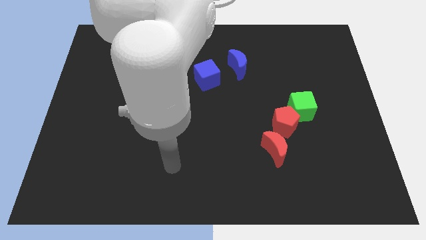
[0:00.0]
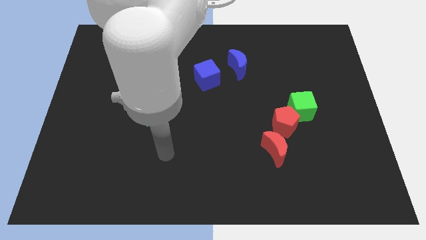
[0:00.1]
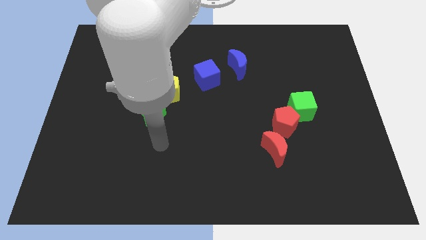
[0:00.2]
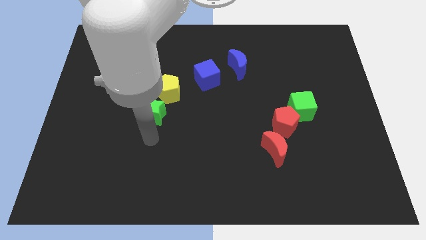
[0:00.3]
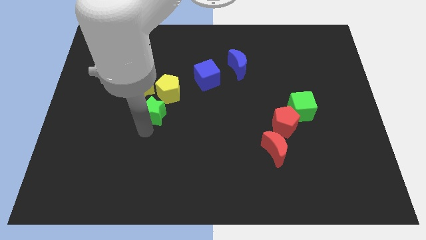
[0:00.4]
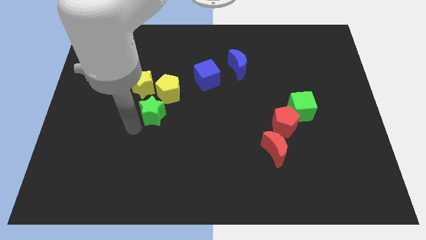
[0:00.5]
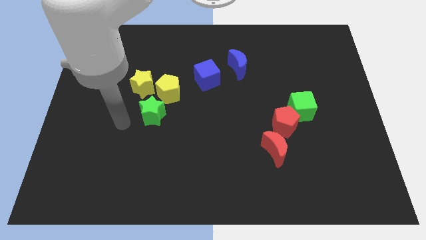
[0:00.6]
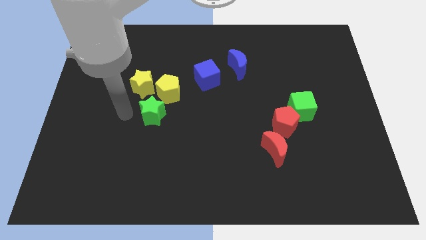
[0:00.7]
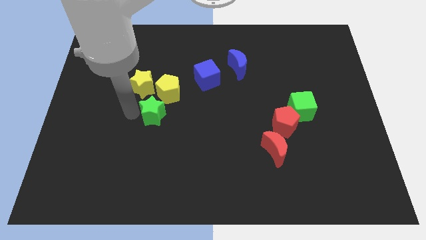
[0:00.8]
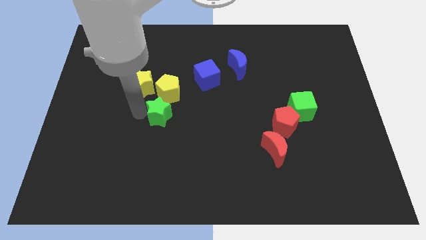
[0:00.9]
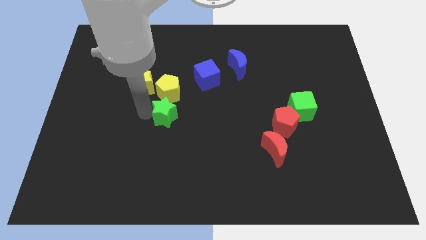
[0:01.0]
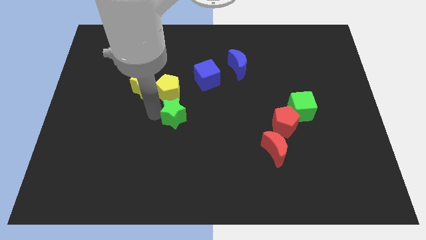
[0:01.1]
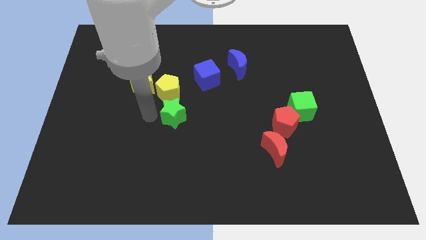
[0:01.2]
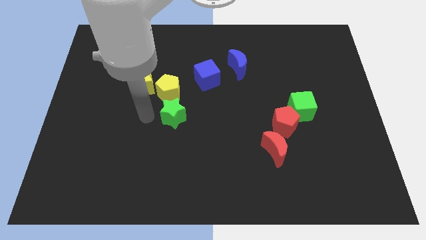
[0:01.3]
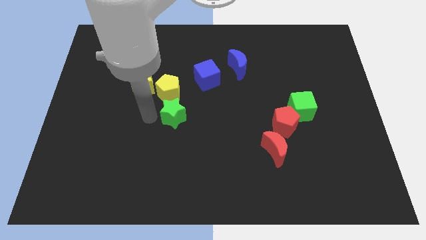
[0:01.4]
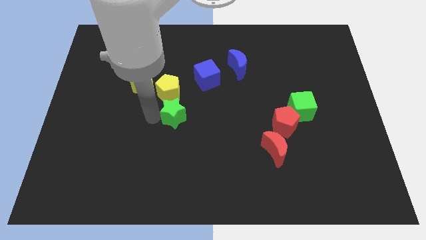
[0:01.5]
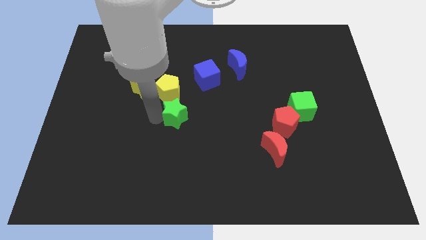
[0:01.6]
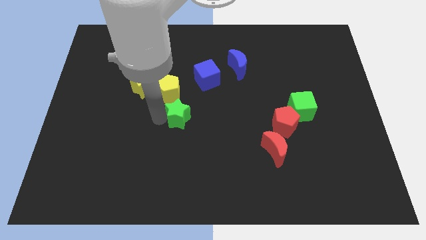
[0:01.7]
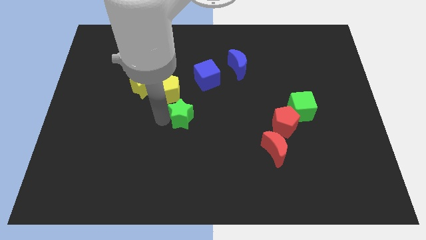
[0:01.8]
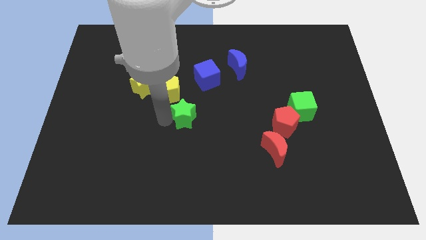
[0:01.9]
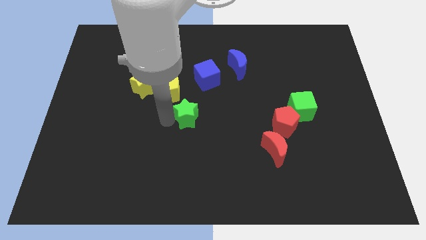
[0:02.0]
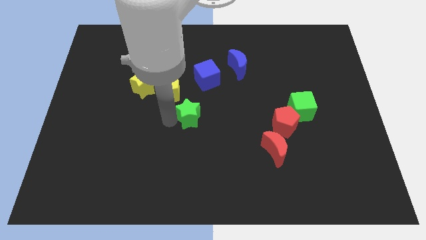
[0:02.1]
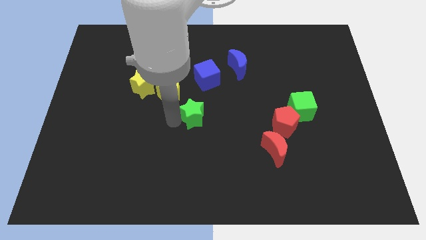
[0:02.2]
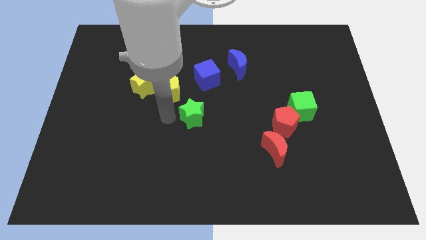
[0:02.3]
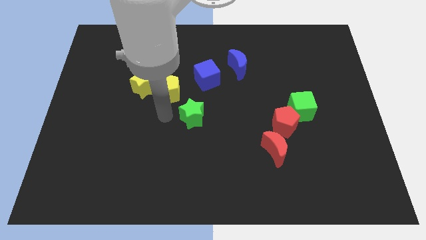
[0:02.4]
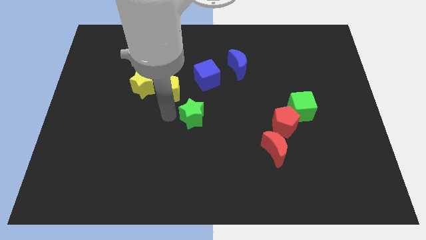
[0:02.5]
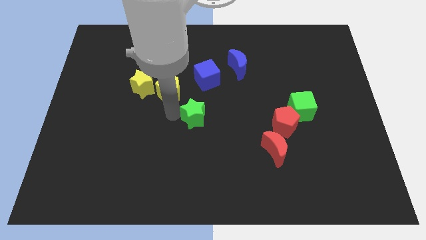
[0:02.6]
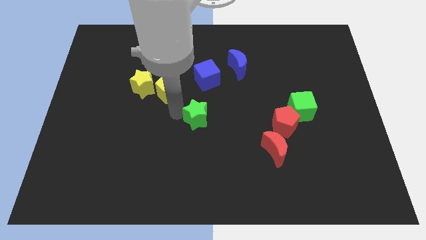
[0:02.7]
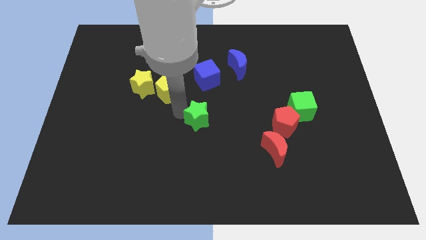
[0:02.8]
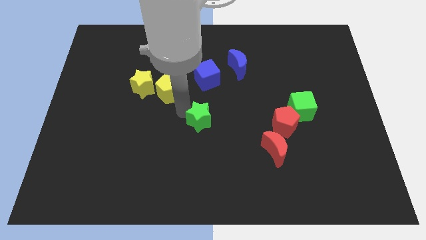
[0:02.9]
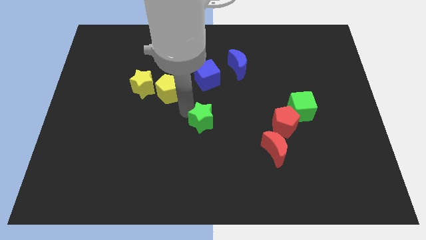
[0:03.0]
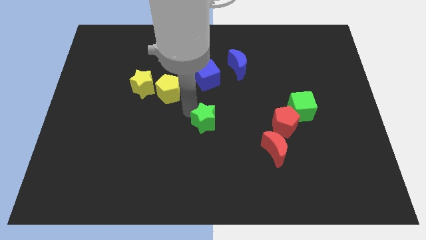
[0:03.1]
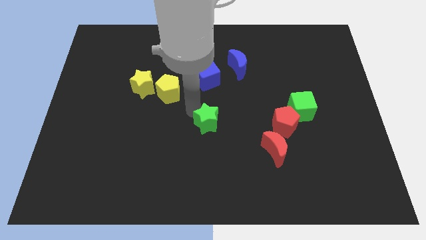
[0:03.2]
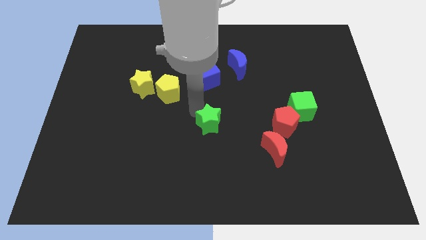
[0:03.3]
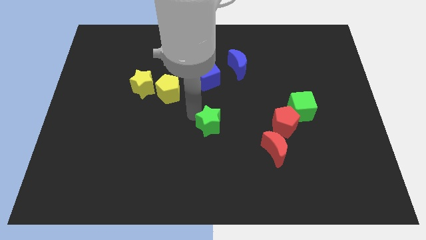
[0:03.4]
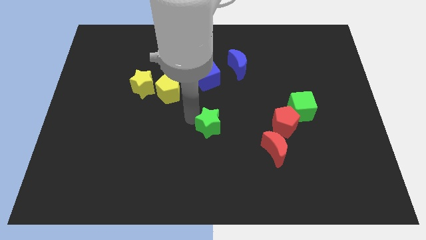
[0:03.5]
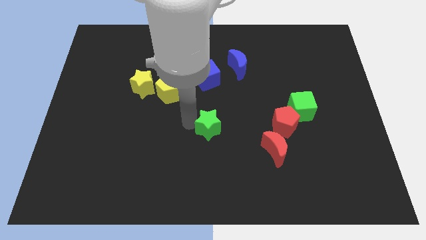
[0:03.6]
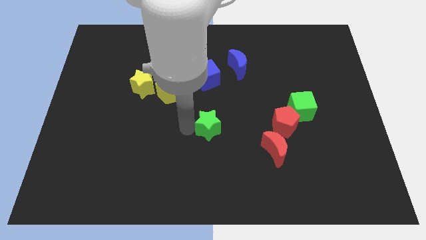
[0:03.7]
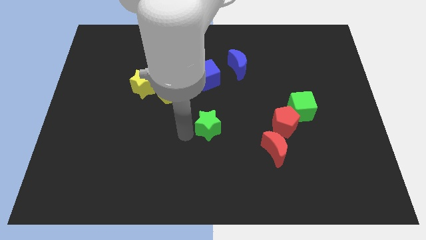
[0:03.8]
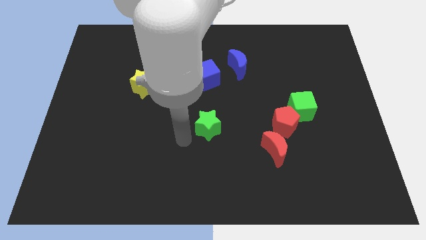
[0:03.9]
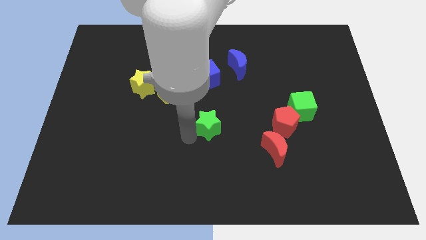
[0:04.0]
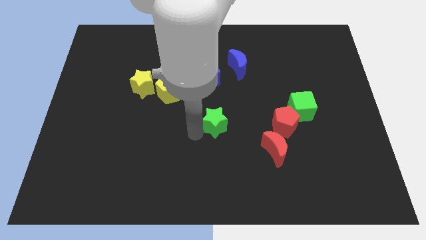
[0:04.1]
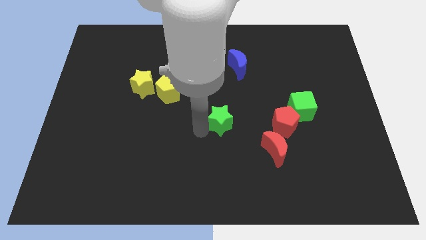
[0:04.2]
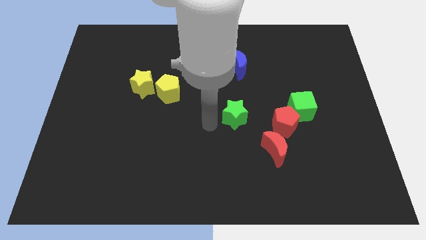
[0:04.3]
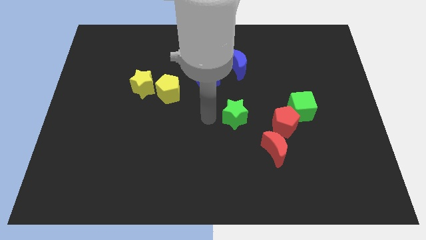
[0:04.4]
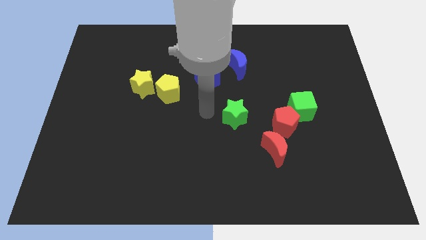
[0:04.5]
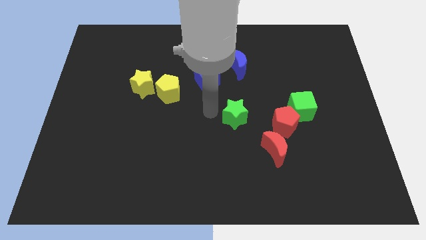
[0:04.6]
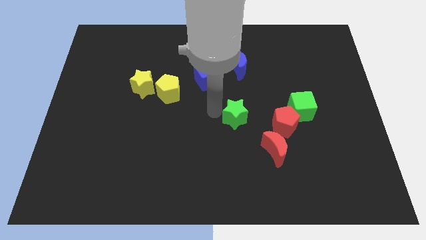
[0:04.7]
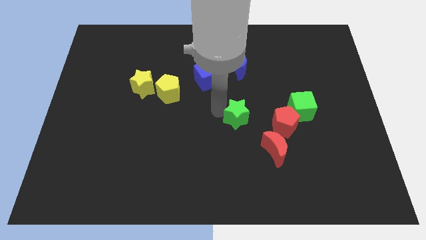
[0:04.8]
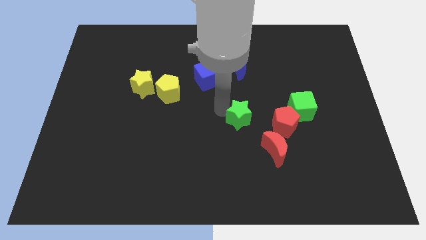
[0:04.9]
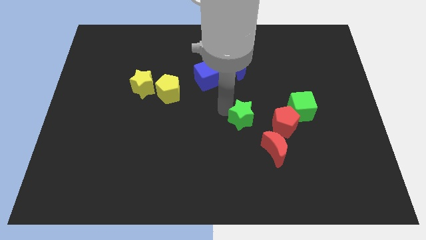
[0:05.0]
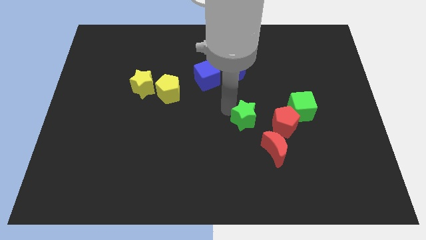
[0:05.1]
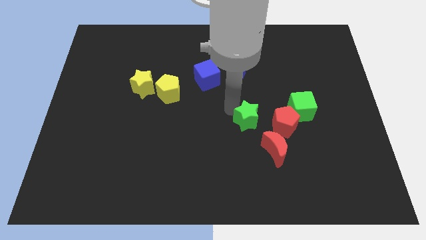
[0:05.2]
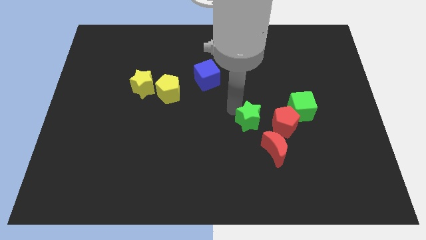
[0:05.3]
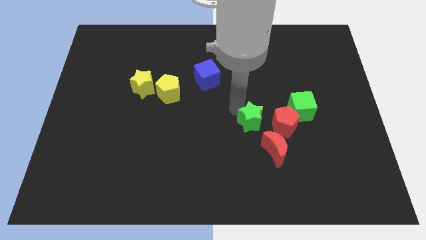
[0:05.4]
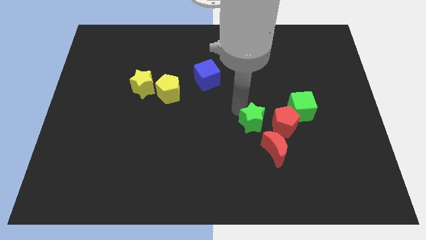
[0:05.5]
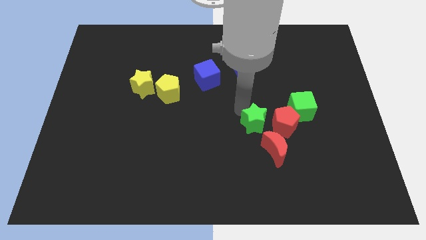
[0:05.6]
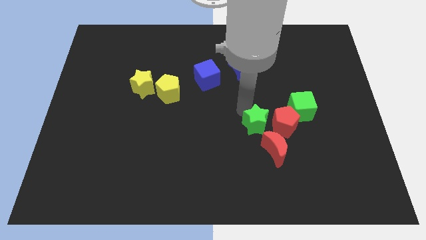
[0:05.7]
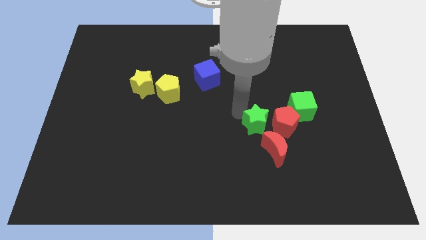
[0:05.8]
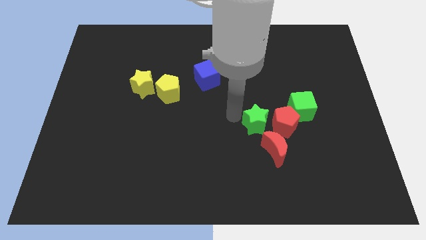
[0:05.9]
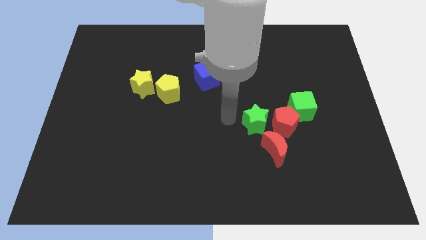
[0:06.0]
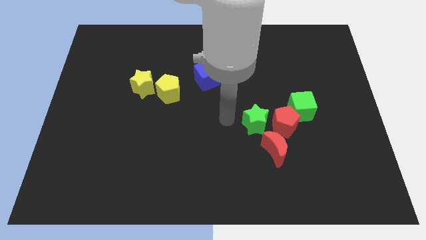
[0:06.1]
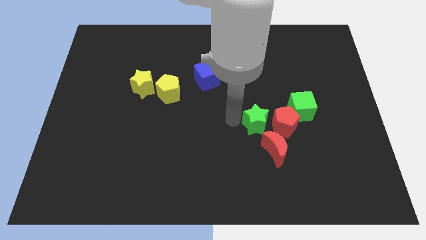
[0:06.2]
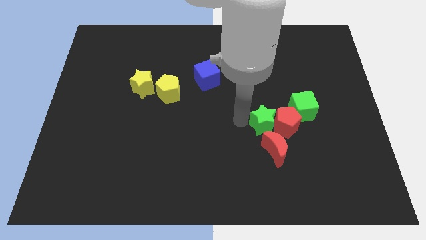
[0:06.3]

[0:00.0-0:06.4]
push the green star towards the red pentagon

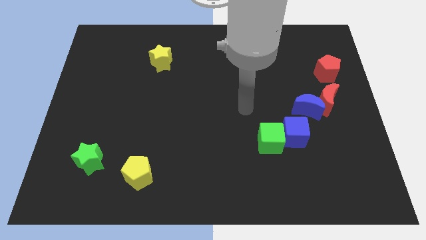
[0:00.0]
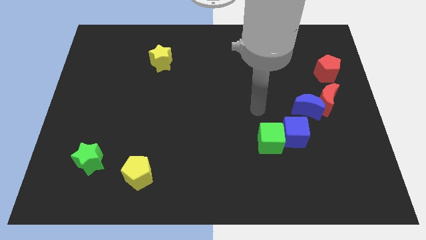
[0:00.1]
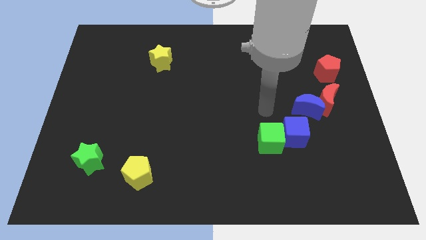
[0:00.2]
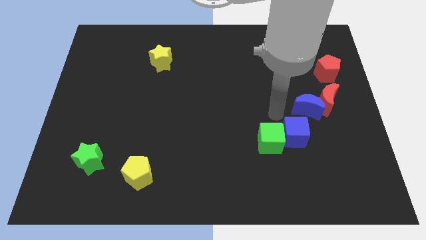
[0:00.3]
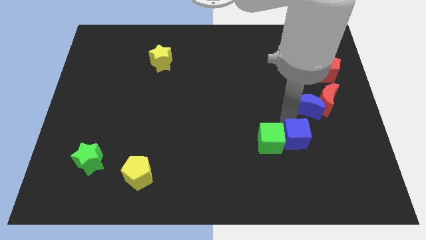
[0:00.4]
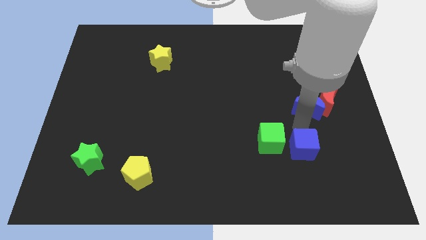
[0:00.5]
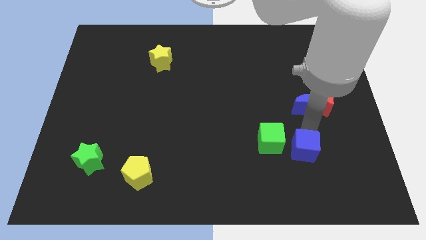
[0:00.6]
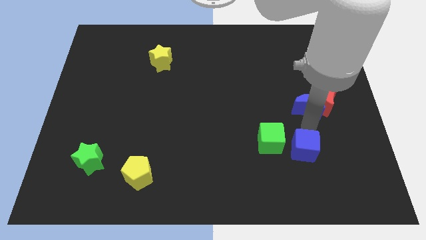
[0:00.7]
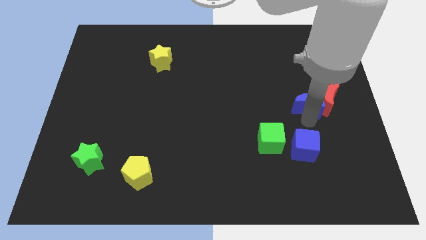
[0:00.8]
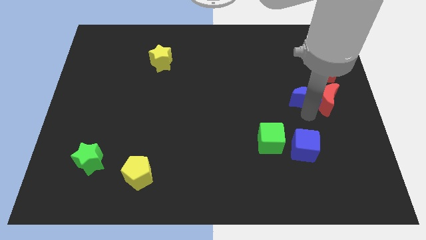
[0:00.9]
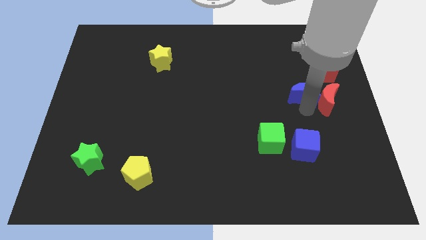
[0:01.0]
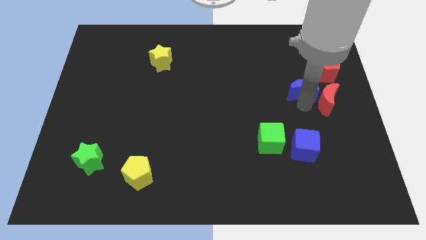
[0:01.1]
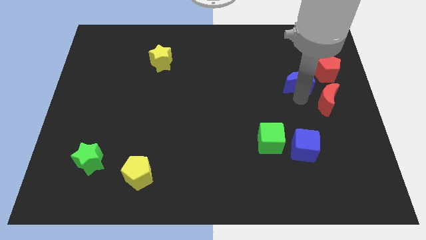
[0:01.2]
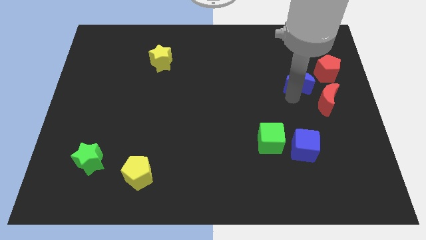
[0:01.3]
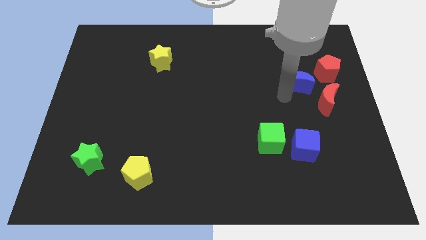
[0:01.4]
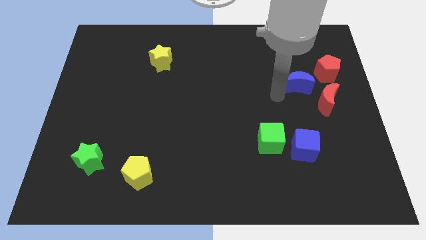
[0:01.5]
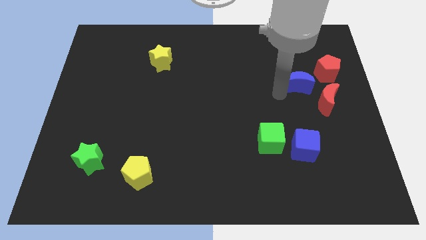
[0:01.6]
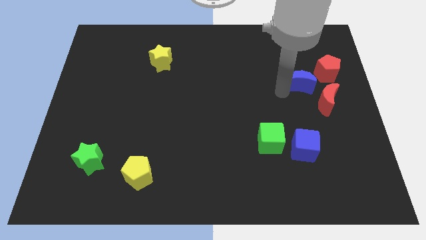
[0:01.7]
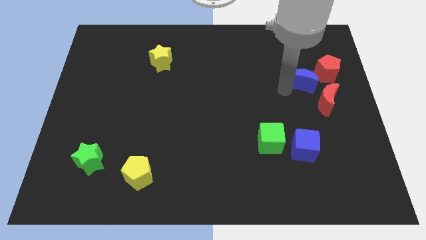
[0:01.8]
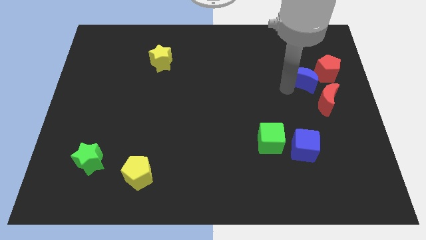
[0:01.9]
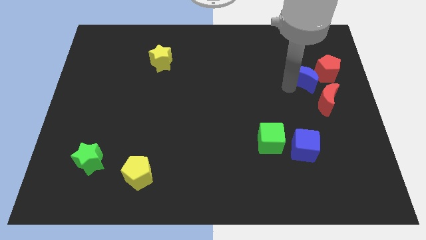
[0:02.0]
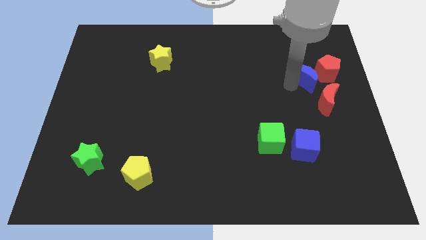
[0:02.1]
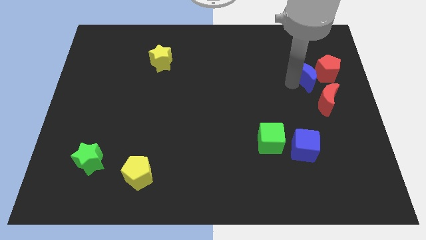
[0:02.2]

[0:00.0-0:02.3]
slide the blue moon towards the red pentagon
